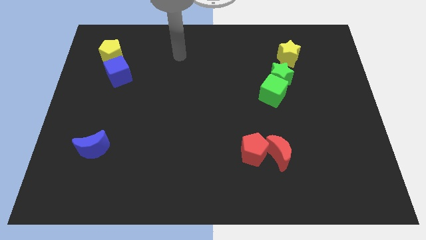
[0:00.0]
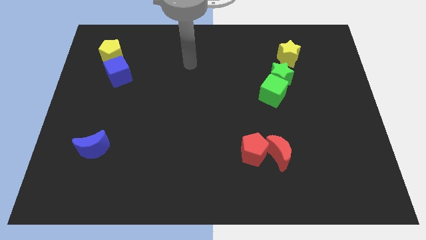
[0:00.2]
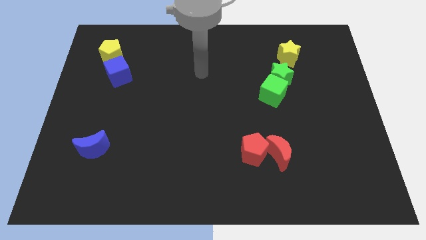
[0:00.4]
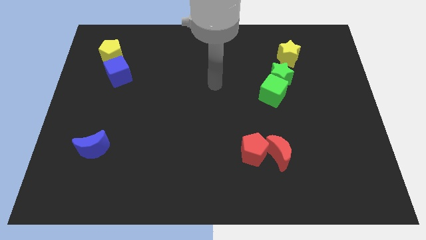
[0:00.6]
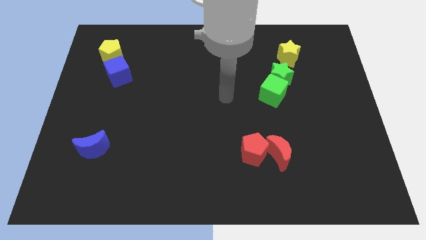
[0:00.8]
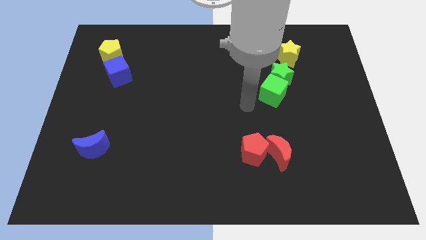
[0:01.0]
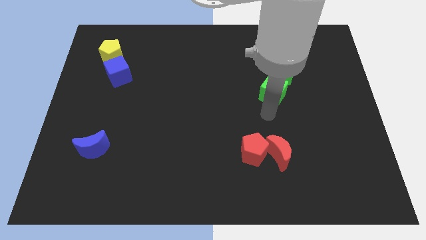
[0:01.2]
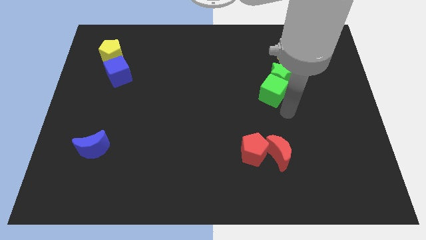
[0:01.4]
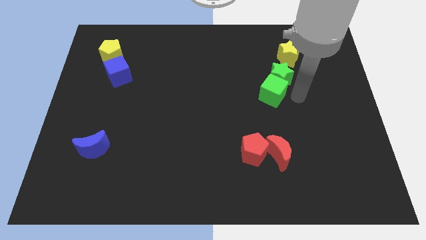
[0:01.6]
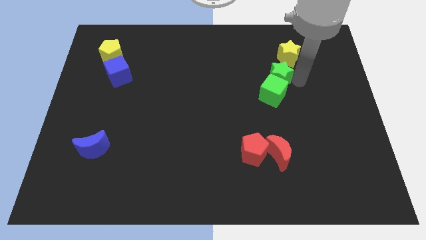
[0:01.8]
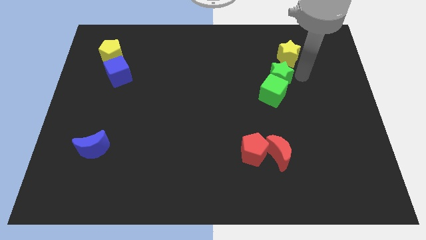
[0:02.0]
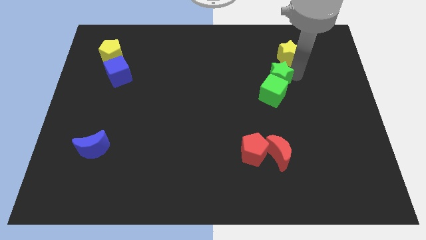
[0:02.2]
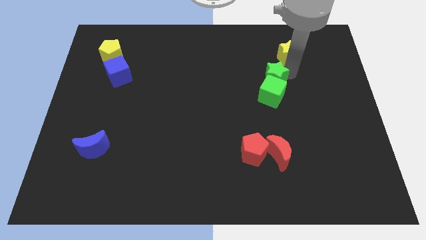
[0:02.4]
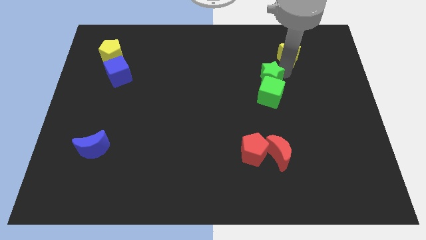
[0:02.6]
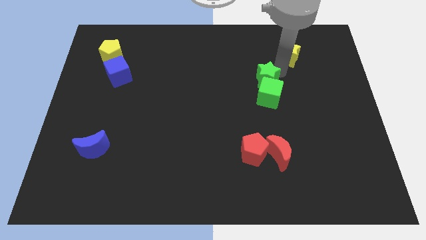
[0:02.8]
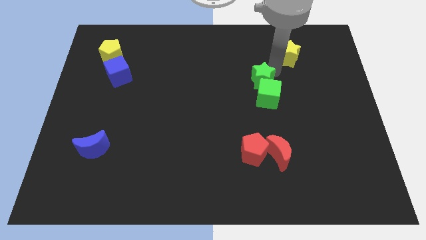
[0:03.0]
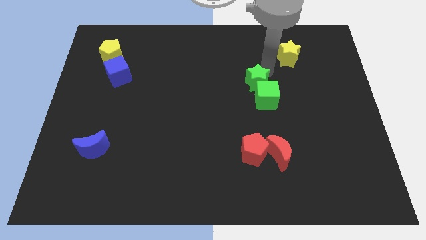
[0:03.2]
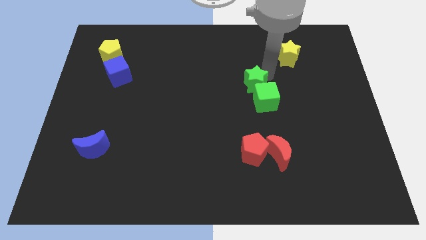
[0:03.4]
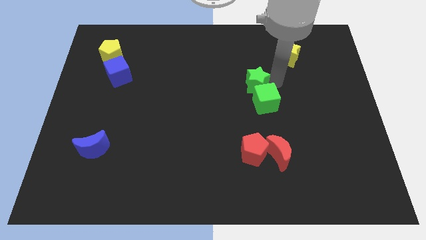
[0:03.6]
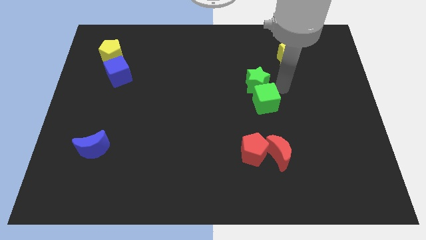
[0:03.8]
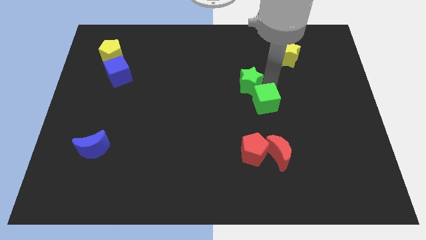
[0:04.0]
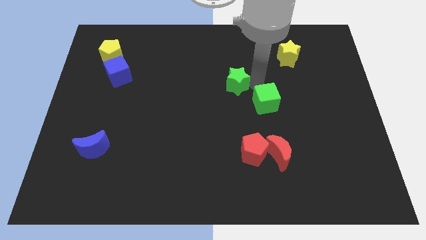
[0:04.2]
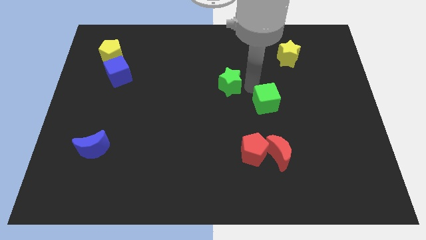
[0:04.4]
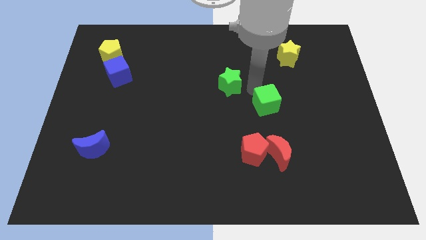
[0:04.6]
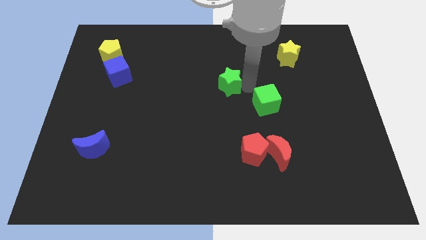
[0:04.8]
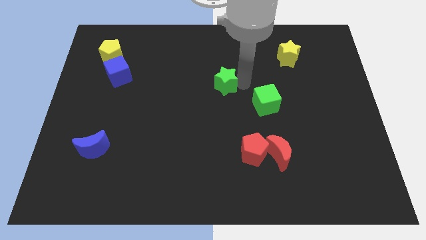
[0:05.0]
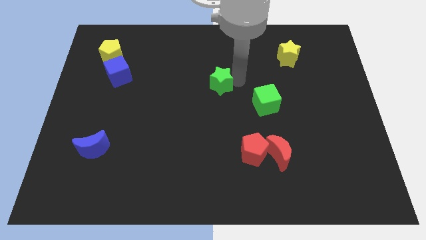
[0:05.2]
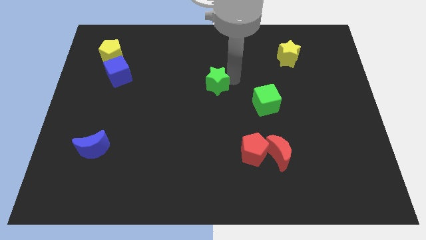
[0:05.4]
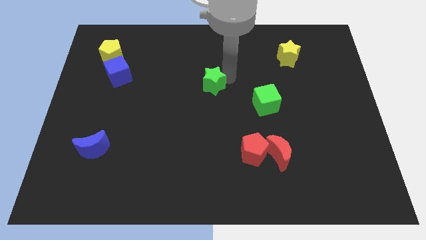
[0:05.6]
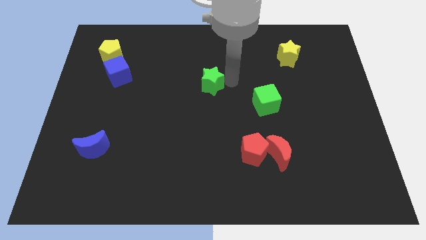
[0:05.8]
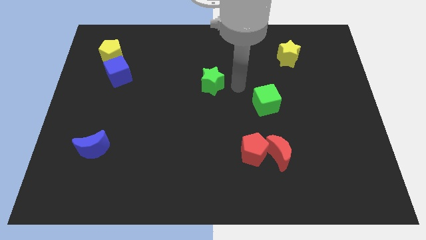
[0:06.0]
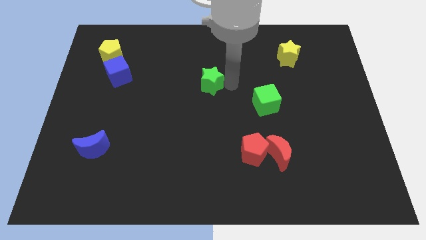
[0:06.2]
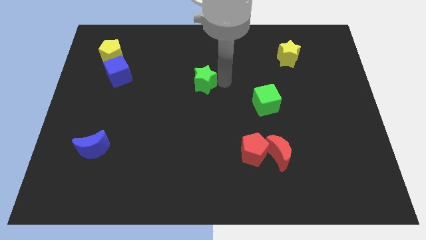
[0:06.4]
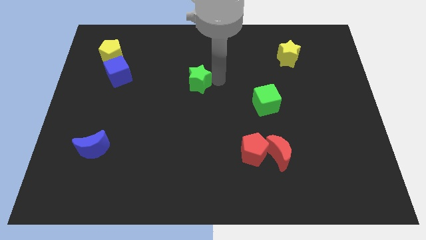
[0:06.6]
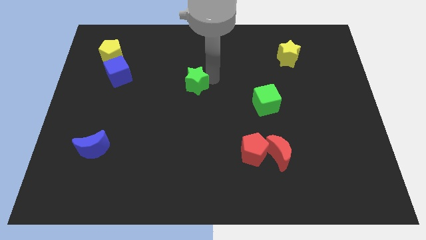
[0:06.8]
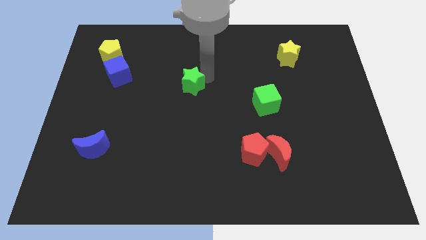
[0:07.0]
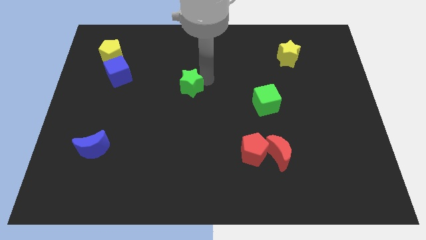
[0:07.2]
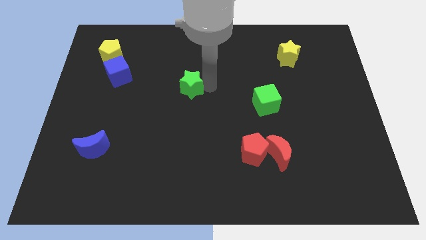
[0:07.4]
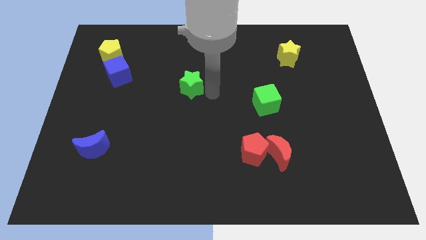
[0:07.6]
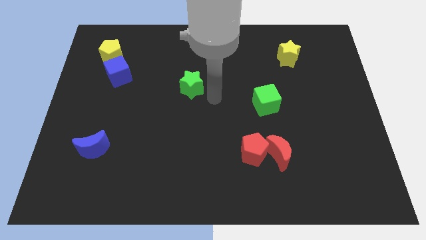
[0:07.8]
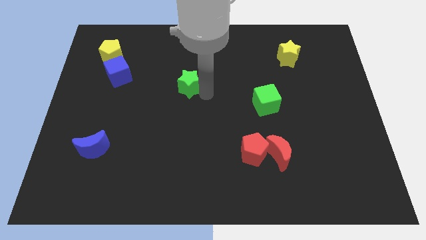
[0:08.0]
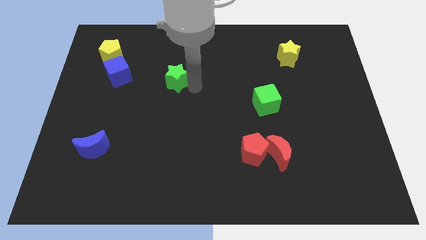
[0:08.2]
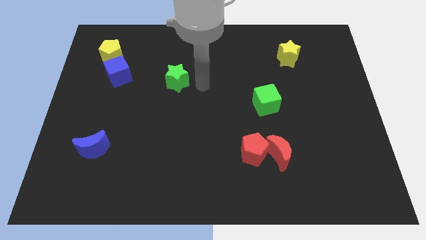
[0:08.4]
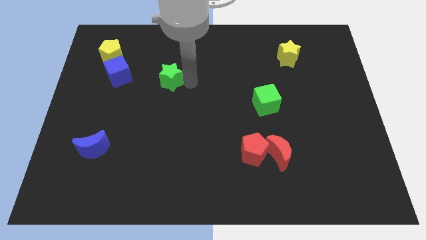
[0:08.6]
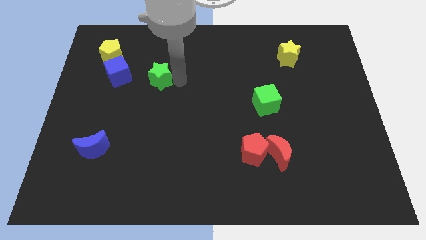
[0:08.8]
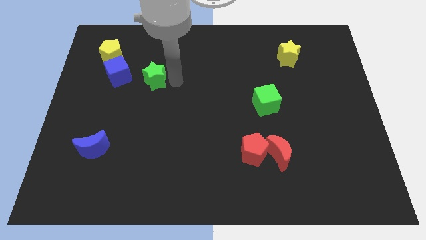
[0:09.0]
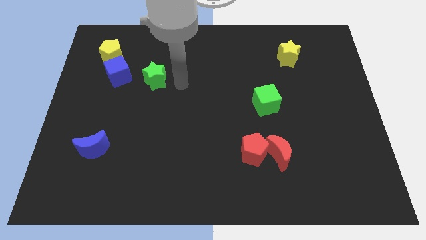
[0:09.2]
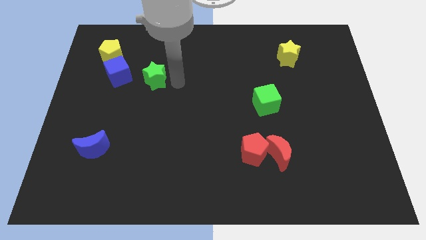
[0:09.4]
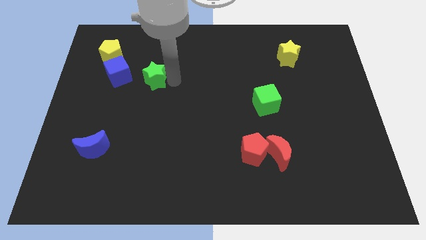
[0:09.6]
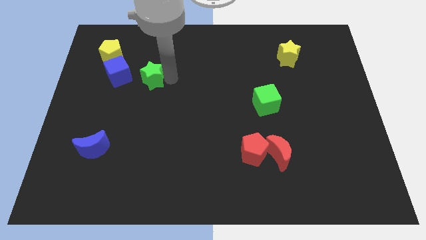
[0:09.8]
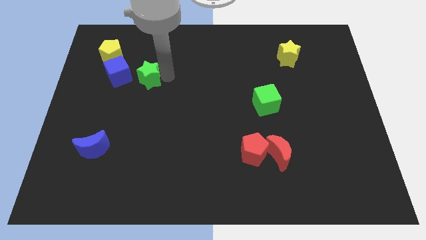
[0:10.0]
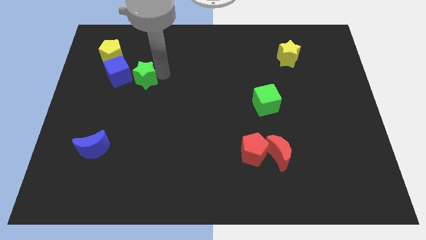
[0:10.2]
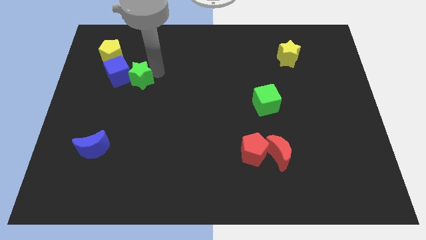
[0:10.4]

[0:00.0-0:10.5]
push the green star close to the blue cube

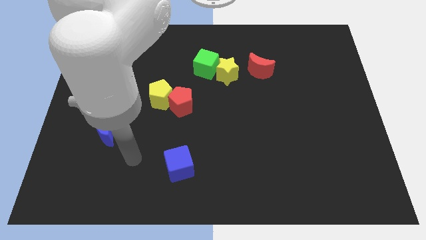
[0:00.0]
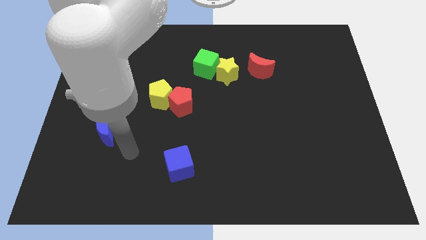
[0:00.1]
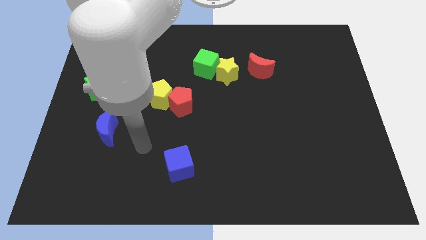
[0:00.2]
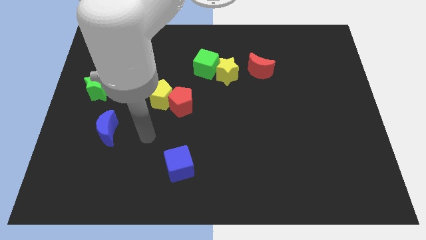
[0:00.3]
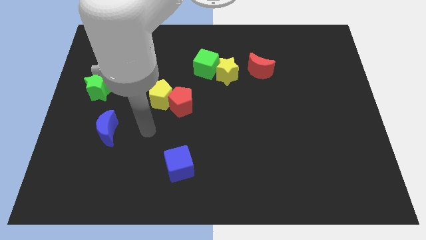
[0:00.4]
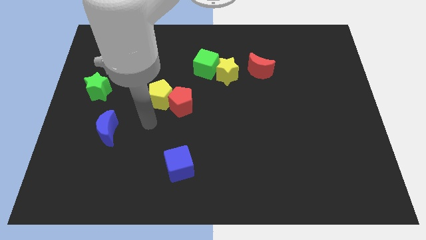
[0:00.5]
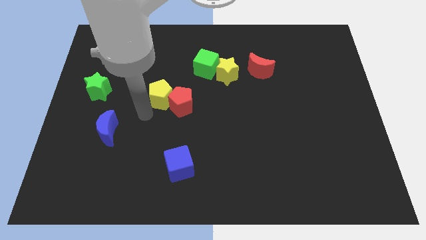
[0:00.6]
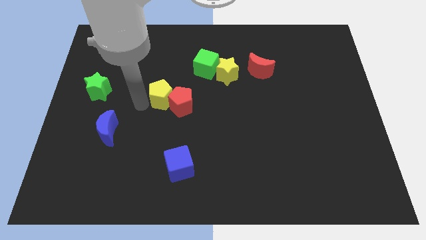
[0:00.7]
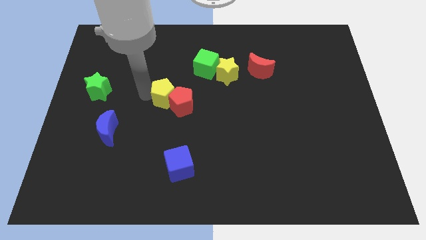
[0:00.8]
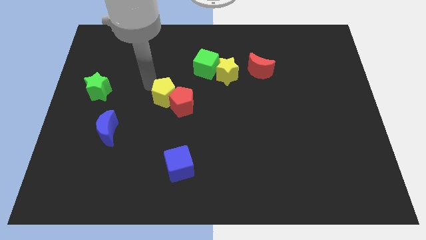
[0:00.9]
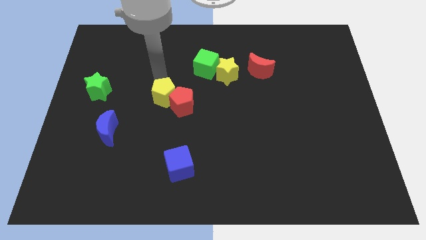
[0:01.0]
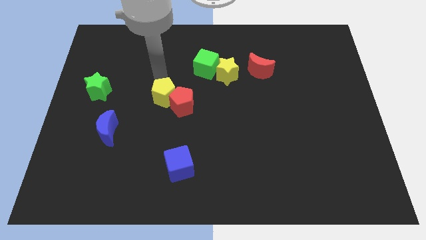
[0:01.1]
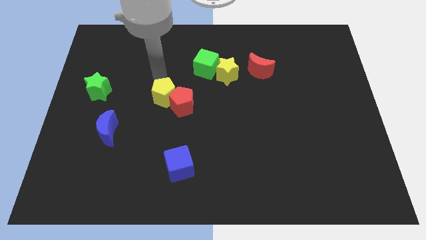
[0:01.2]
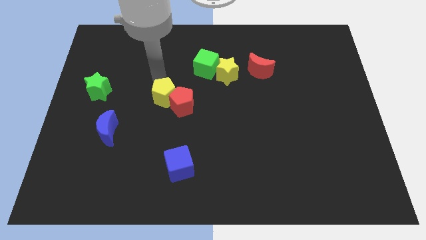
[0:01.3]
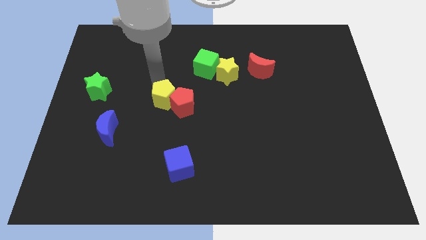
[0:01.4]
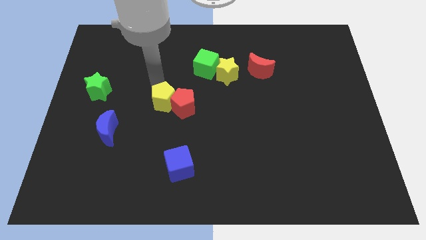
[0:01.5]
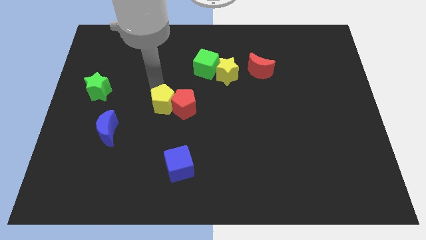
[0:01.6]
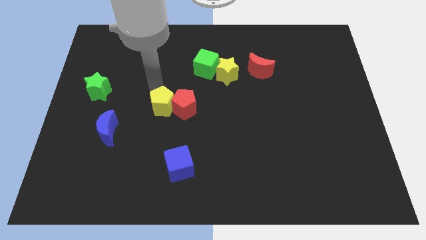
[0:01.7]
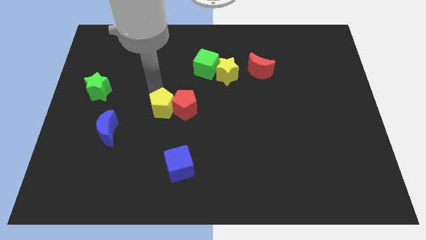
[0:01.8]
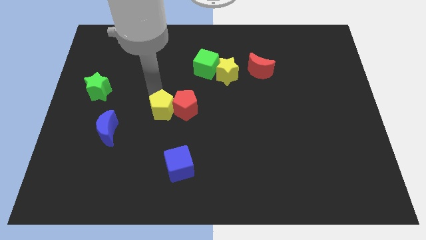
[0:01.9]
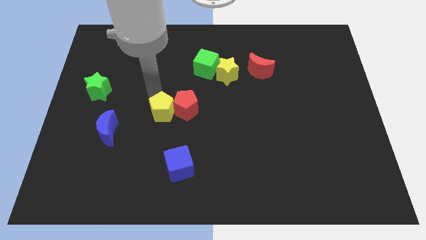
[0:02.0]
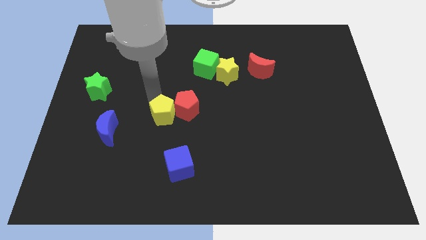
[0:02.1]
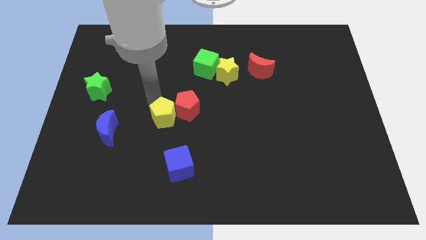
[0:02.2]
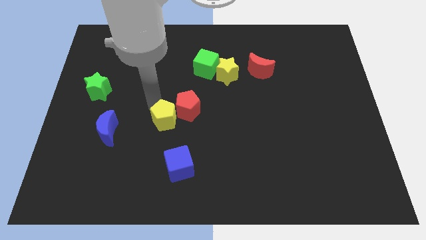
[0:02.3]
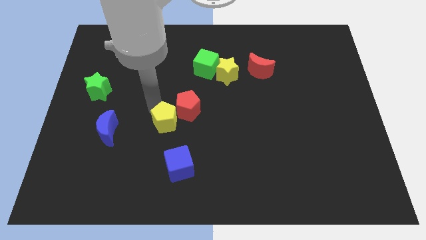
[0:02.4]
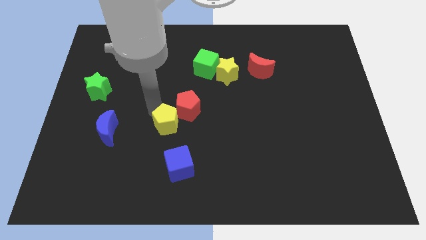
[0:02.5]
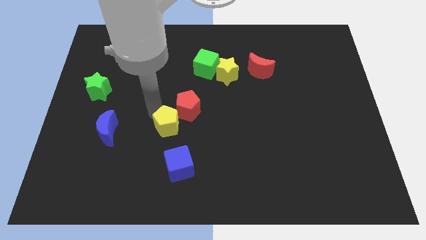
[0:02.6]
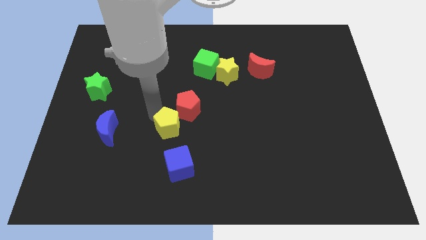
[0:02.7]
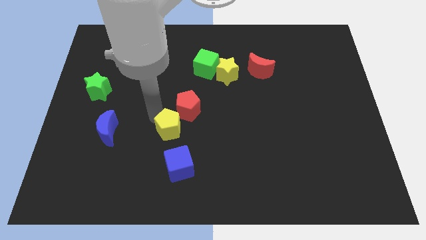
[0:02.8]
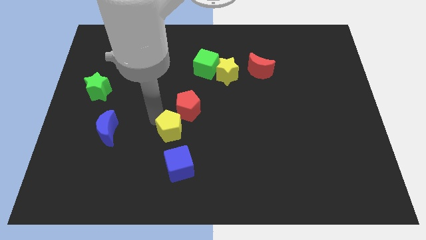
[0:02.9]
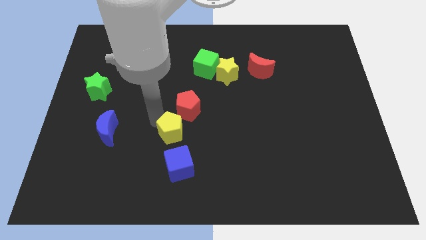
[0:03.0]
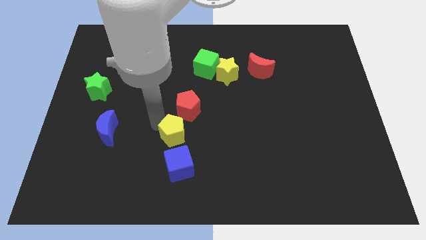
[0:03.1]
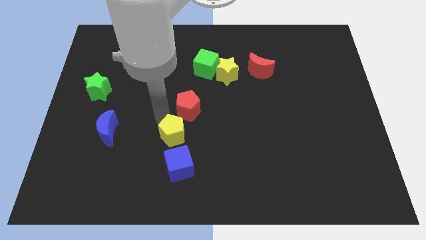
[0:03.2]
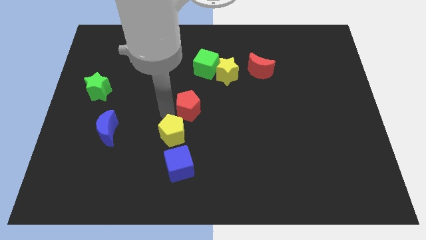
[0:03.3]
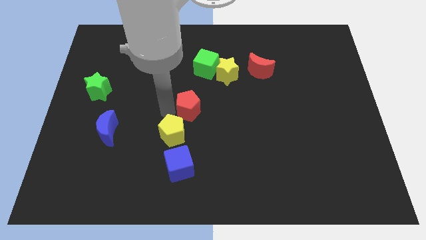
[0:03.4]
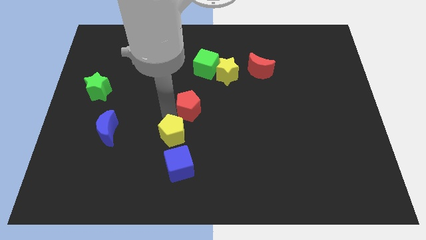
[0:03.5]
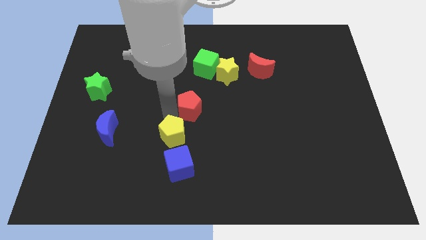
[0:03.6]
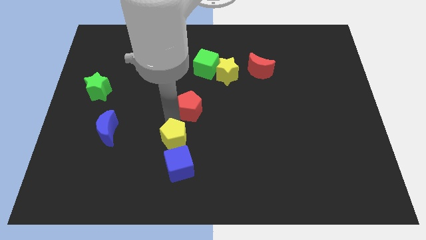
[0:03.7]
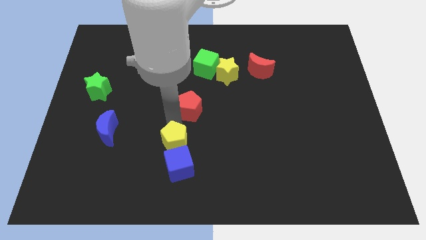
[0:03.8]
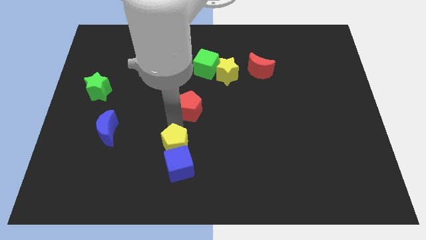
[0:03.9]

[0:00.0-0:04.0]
push the yellow pentagon towards the blue cube
